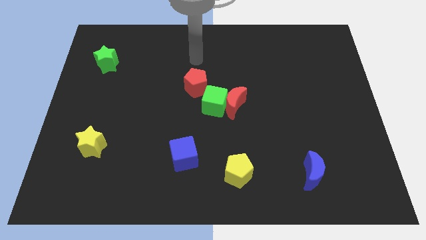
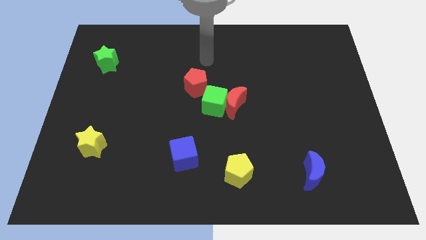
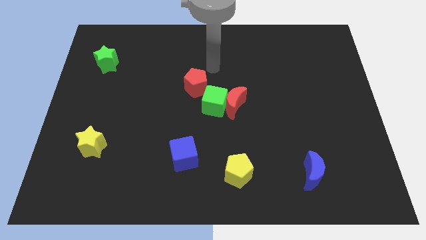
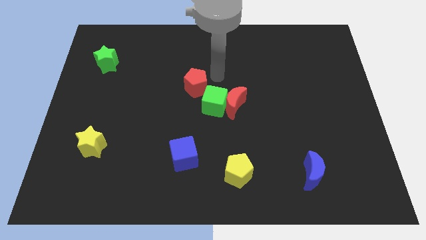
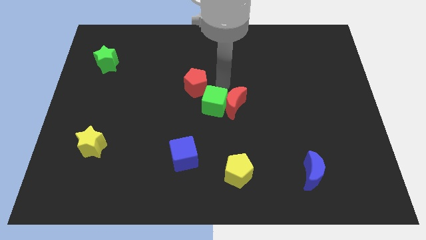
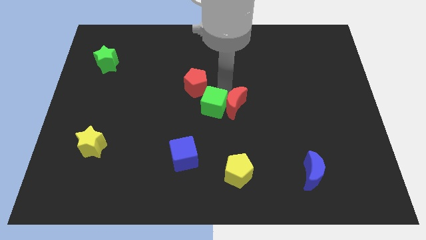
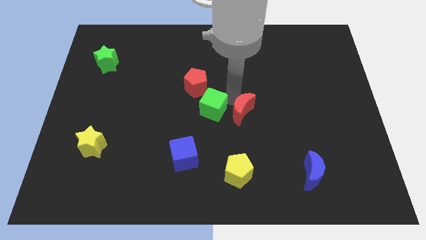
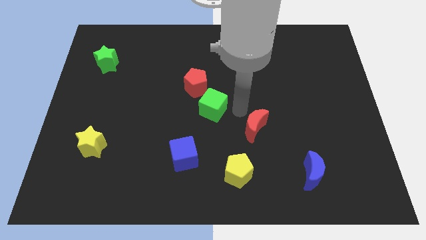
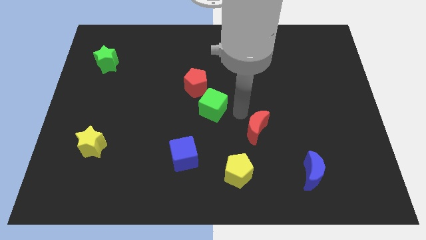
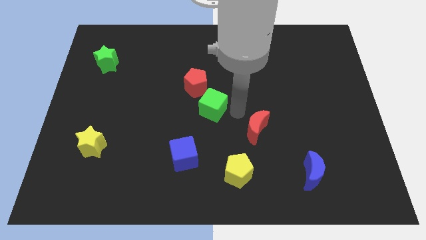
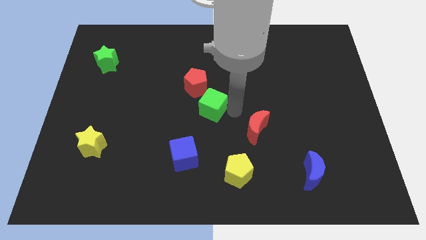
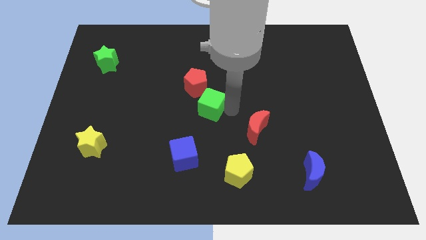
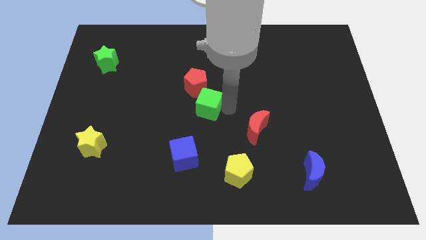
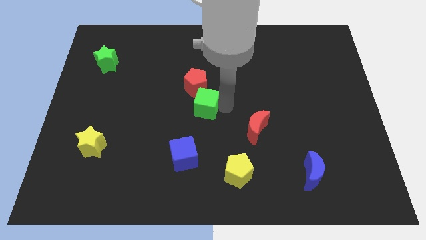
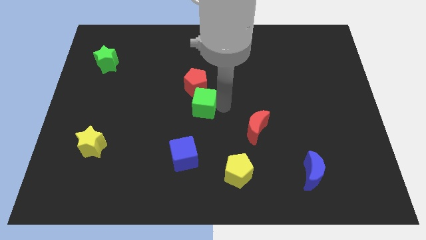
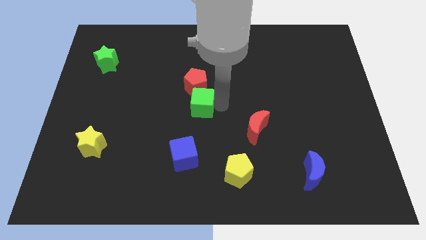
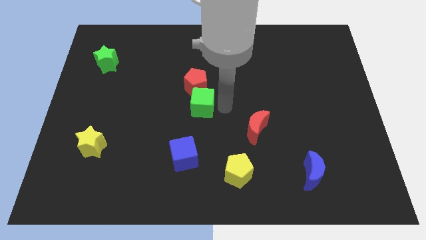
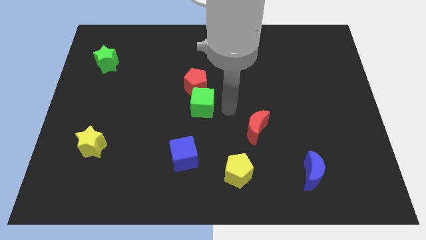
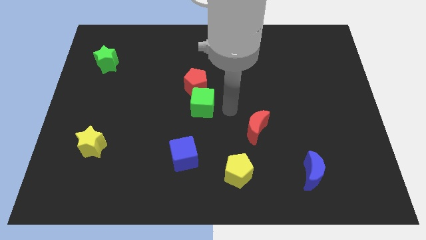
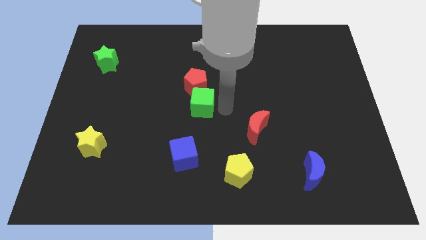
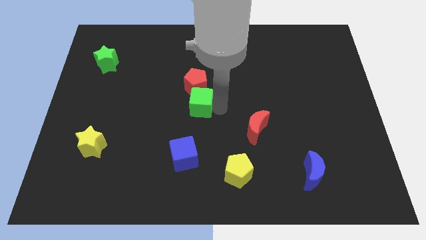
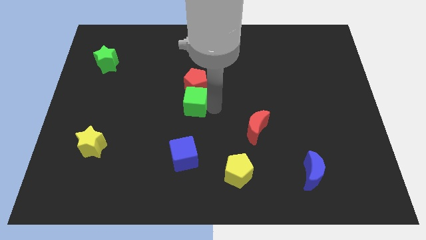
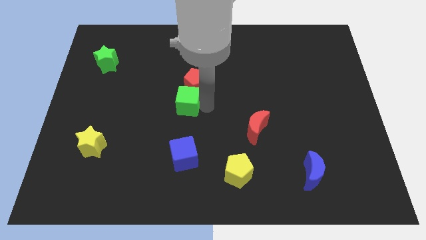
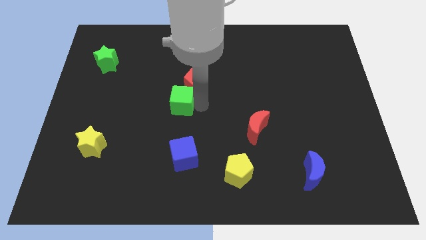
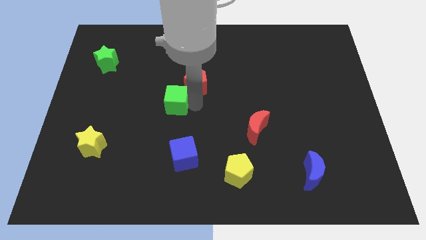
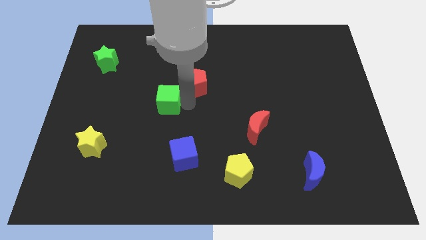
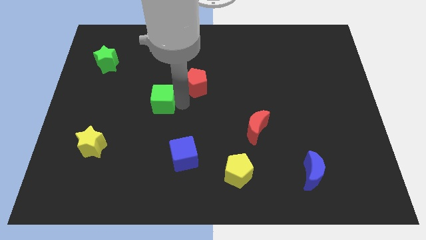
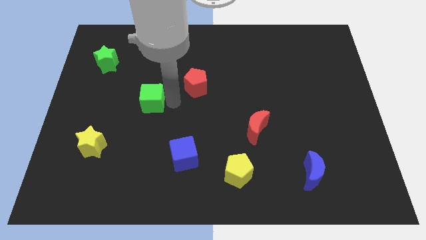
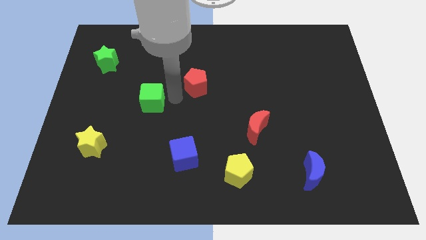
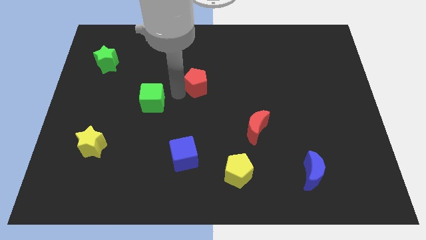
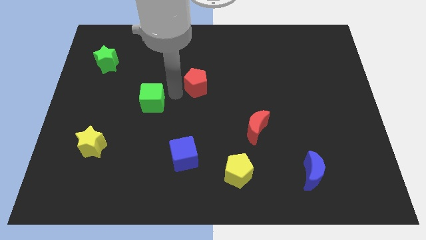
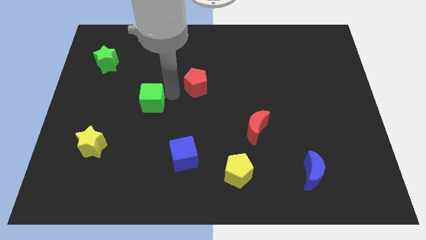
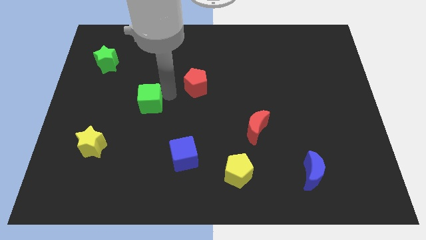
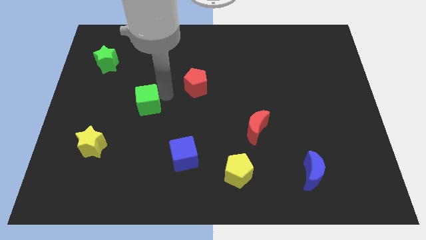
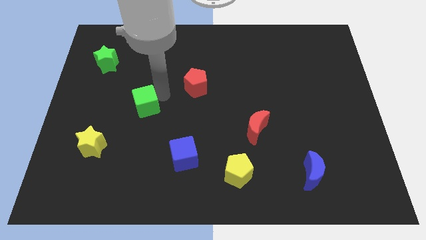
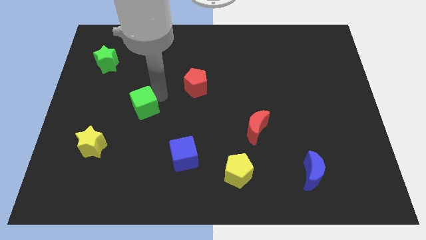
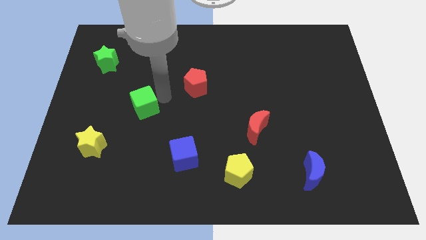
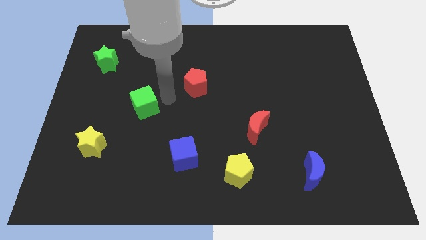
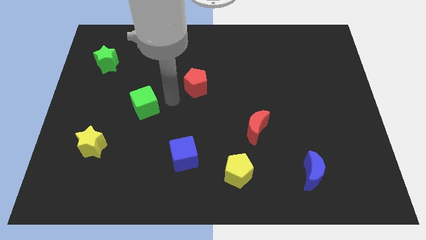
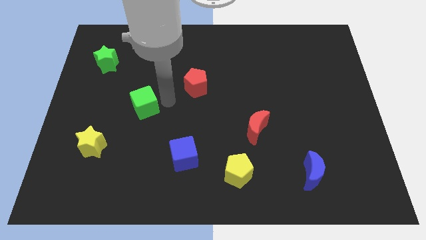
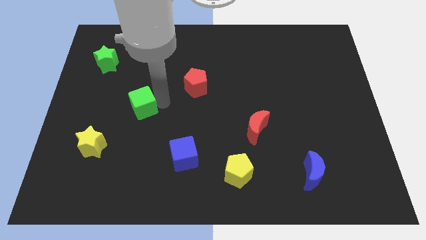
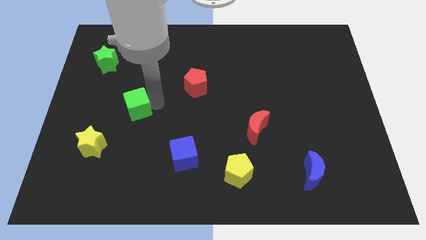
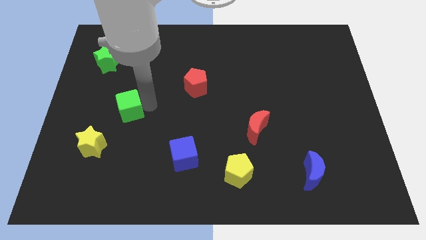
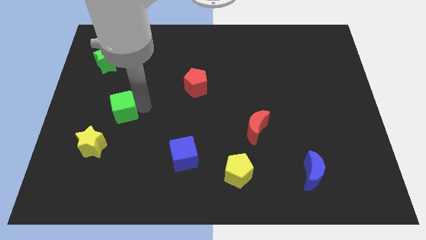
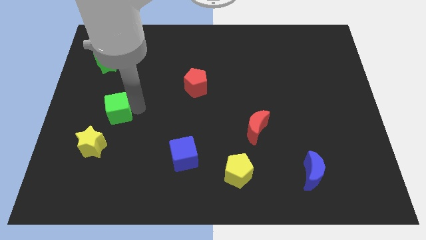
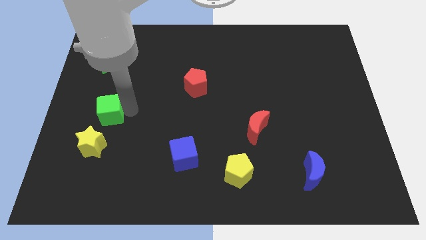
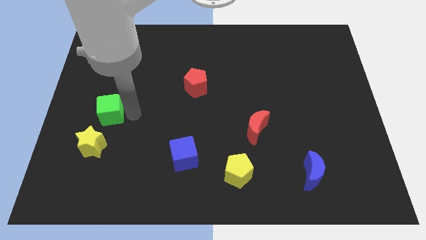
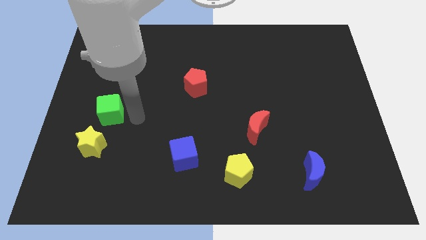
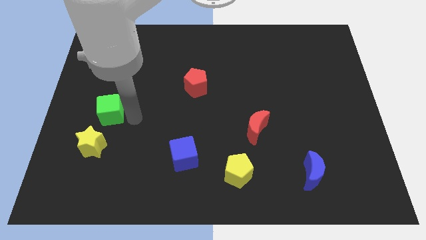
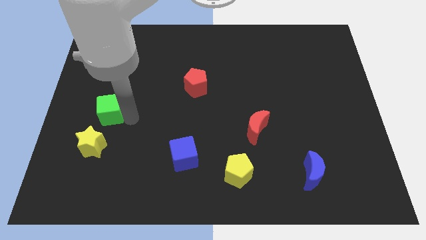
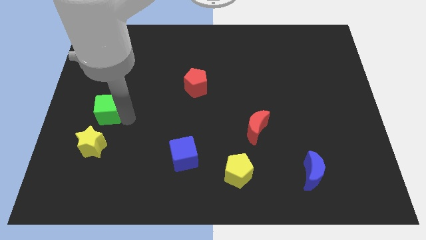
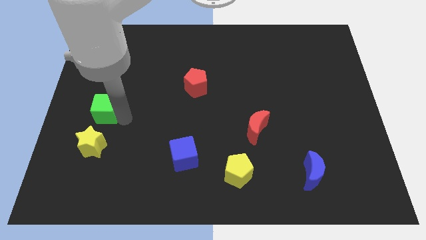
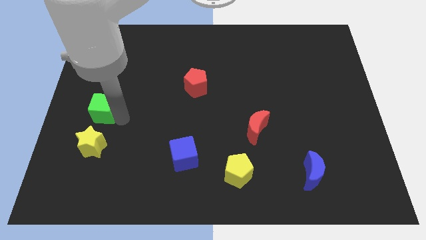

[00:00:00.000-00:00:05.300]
put the green cube to the left side

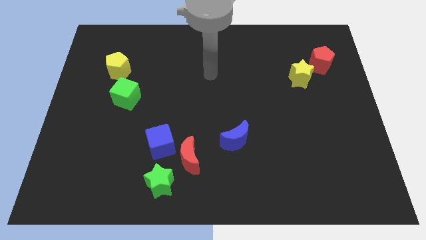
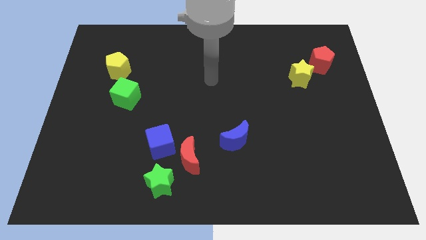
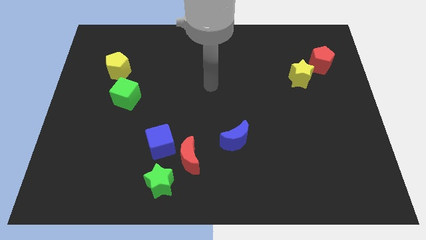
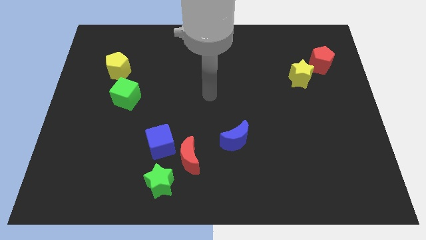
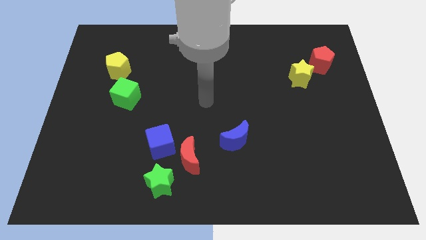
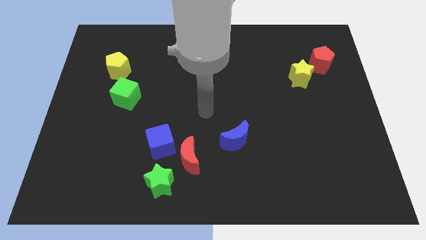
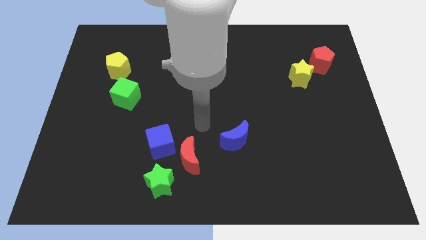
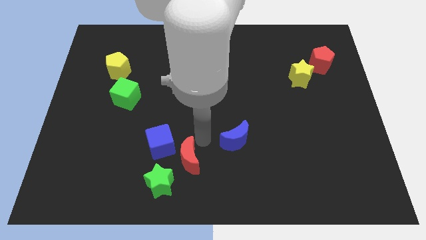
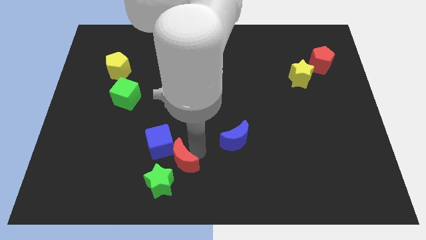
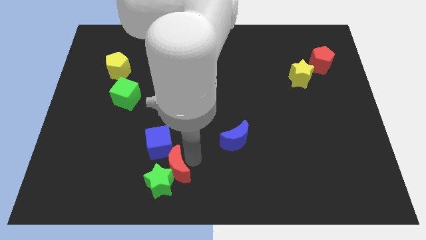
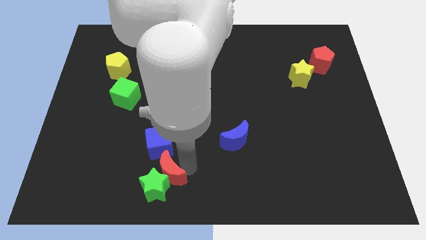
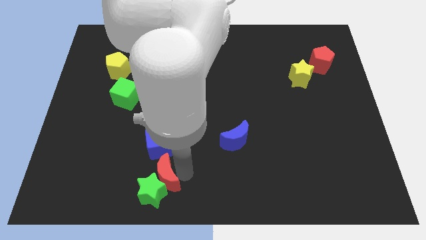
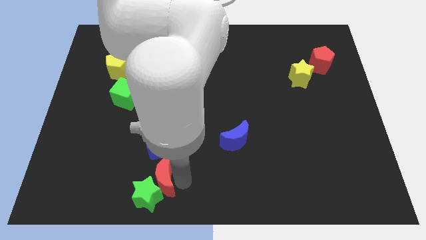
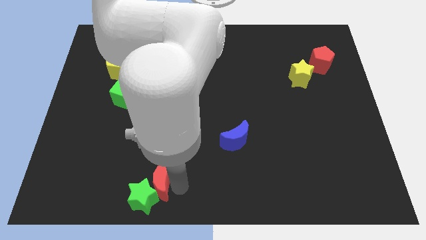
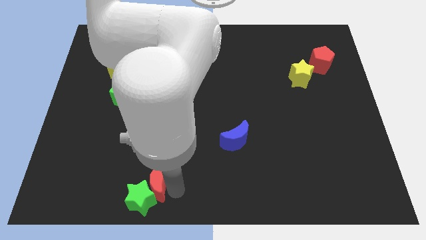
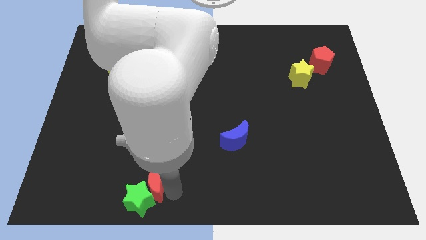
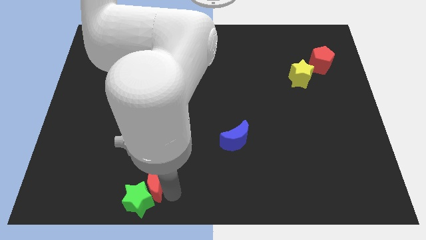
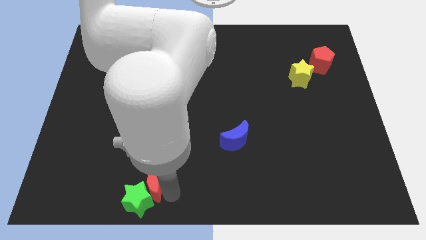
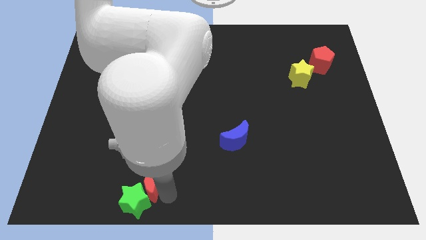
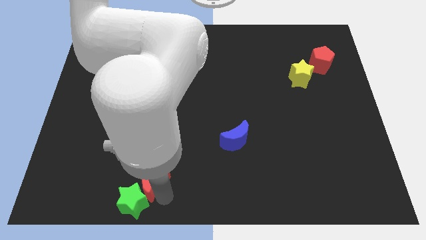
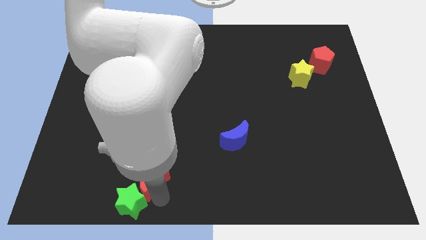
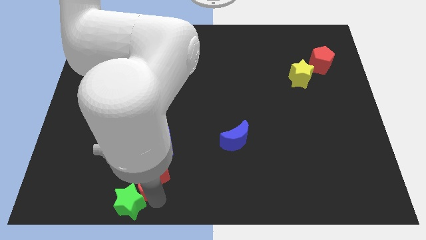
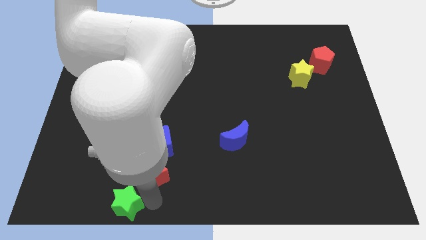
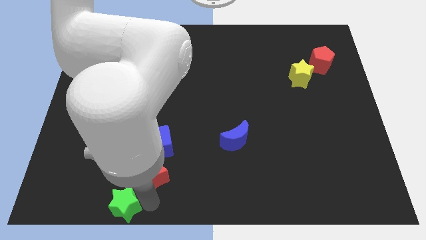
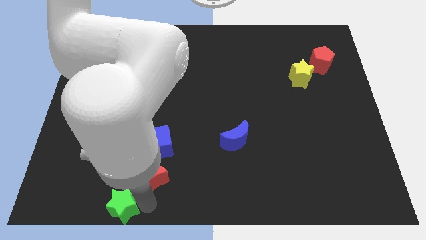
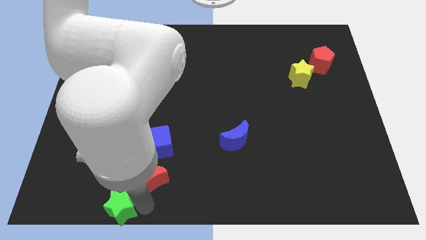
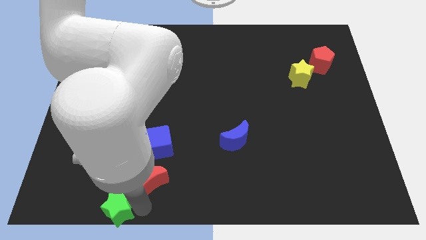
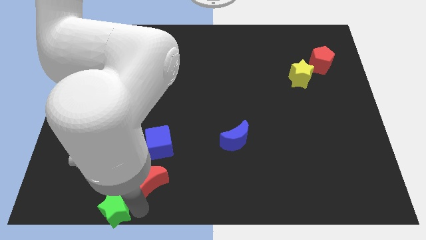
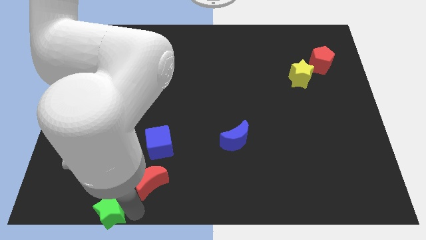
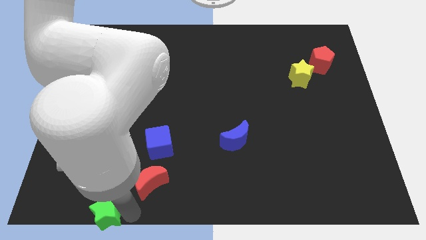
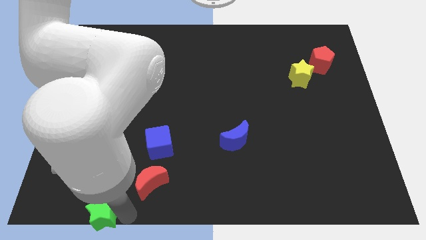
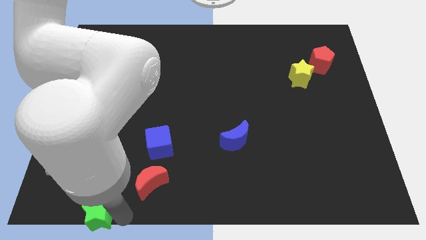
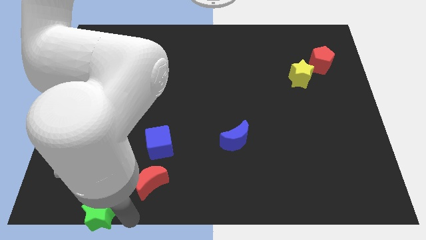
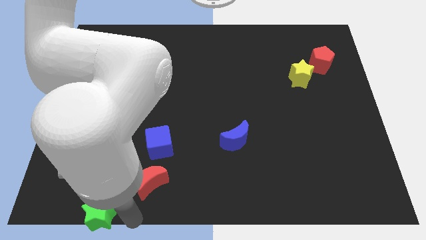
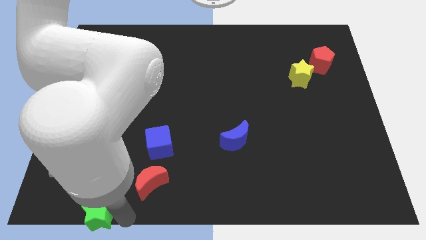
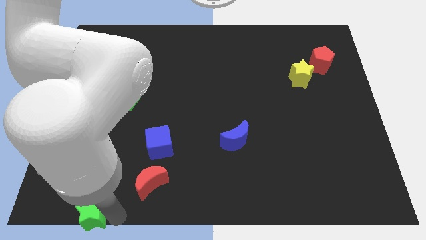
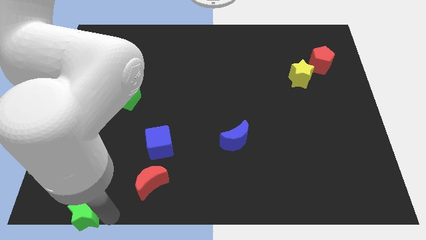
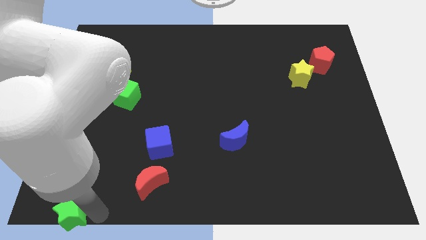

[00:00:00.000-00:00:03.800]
push the green star to the bottom left
